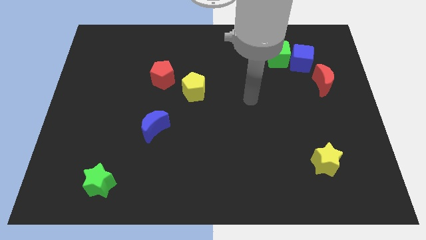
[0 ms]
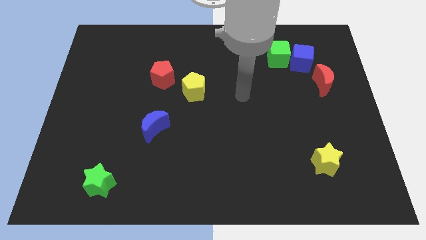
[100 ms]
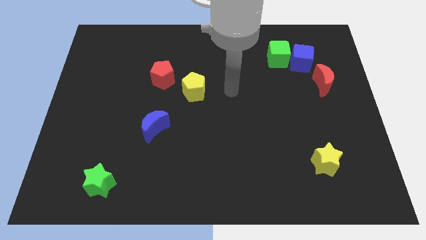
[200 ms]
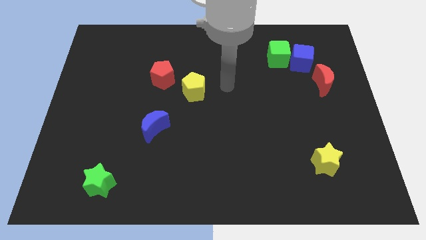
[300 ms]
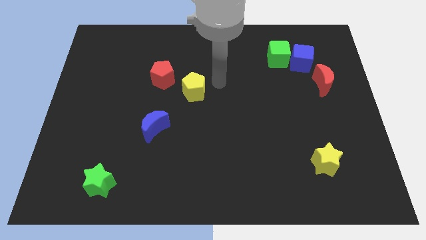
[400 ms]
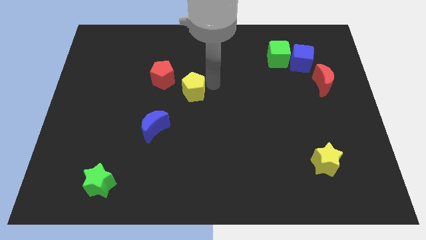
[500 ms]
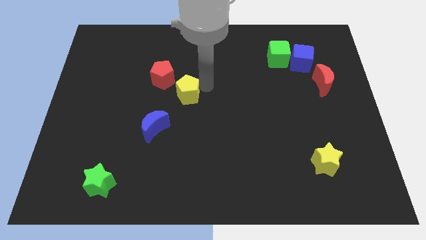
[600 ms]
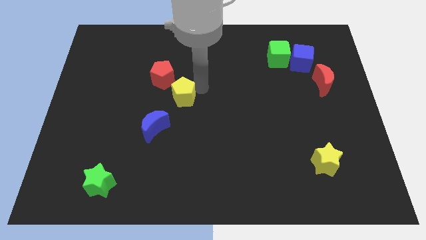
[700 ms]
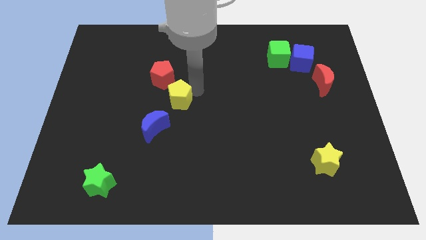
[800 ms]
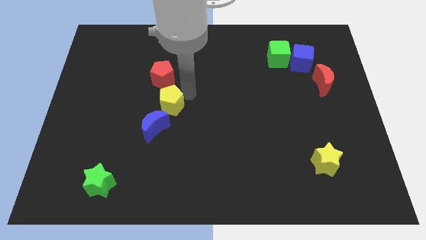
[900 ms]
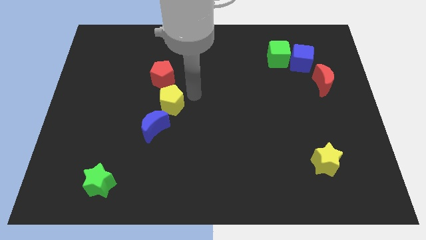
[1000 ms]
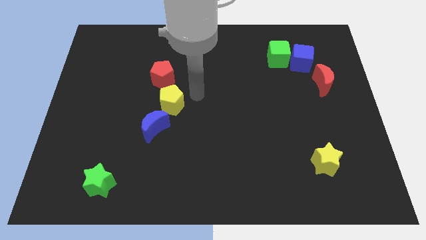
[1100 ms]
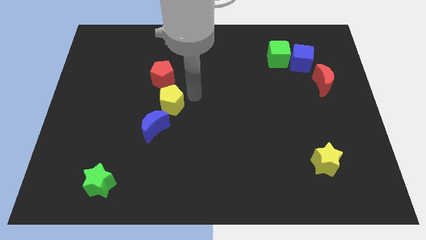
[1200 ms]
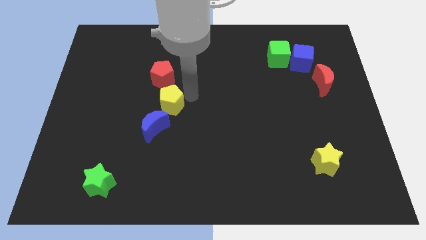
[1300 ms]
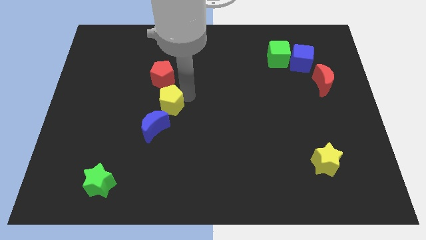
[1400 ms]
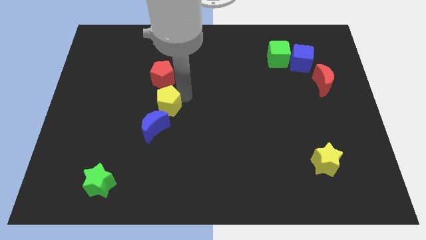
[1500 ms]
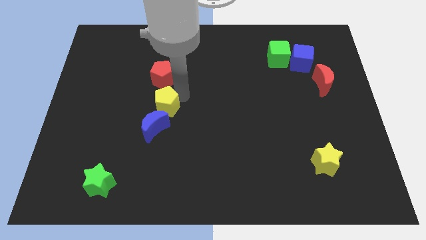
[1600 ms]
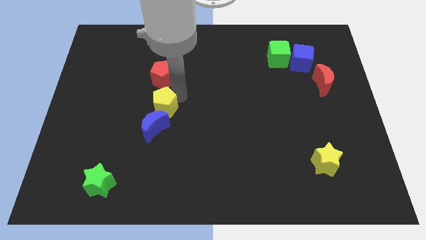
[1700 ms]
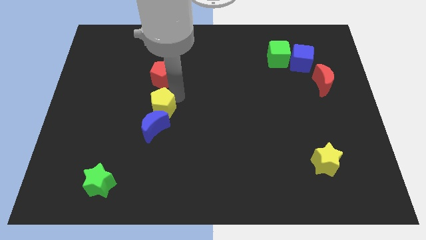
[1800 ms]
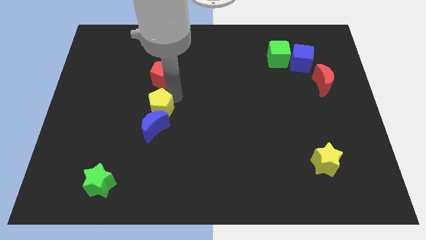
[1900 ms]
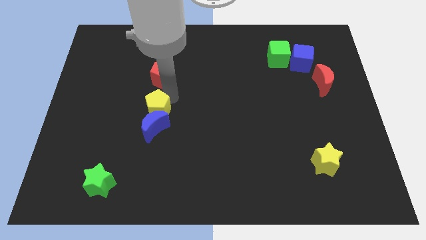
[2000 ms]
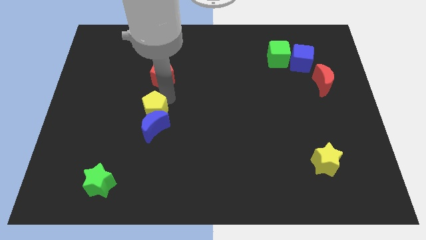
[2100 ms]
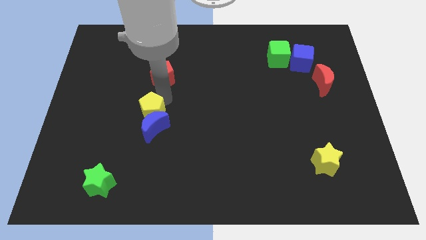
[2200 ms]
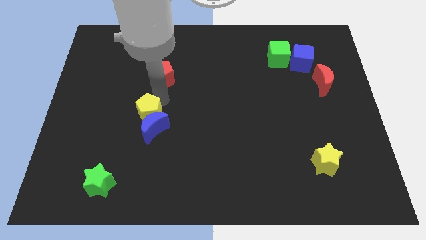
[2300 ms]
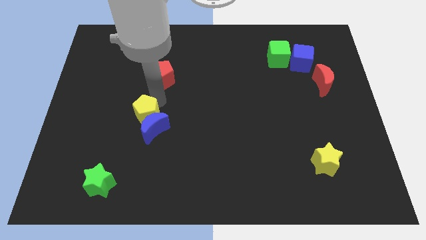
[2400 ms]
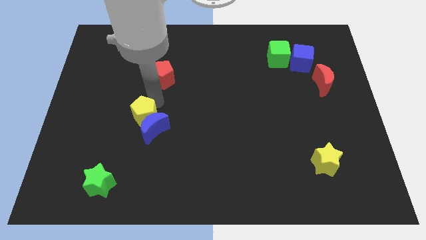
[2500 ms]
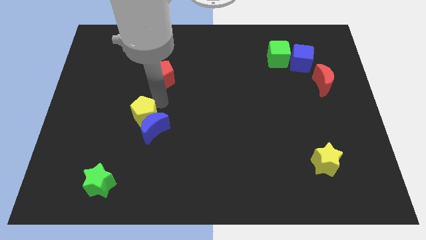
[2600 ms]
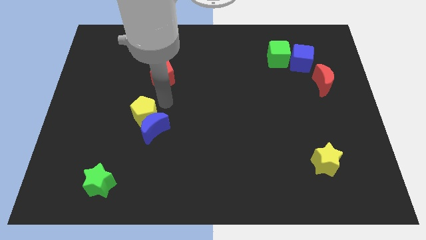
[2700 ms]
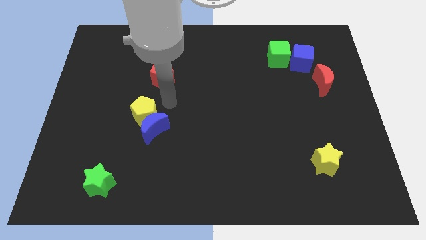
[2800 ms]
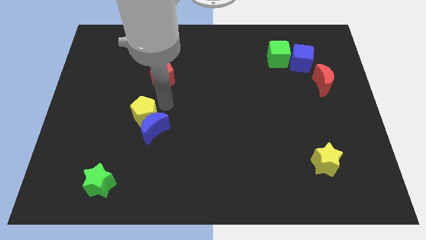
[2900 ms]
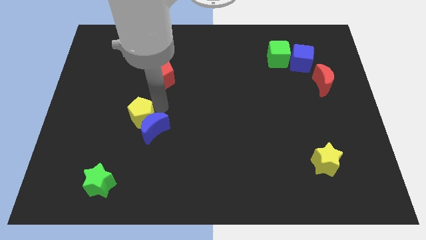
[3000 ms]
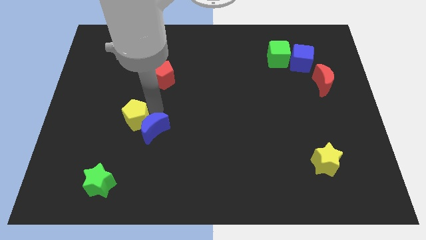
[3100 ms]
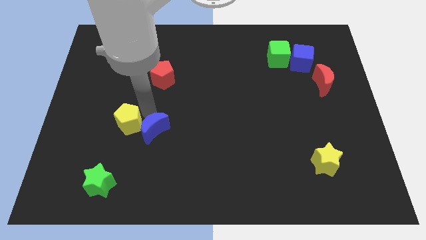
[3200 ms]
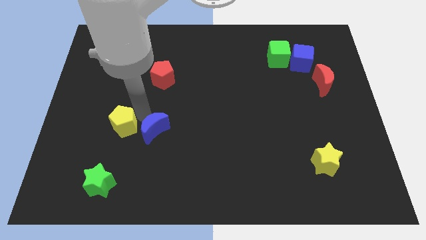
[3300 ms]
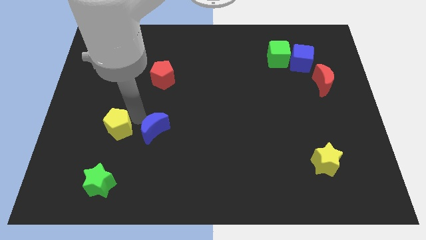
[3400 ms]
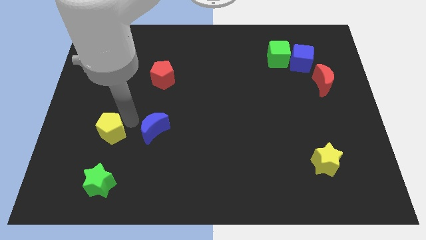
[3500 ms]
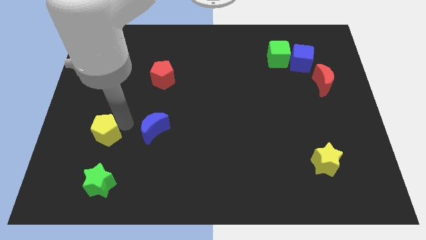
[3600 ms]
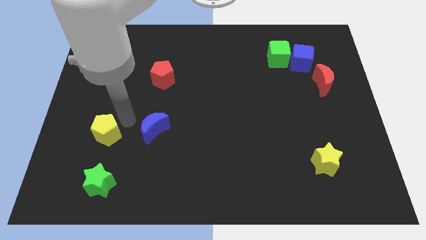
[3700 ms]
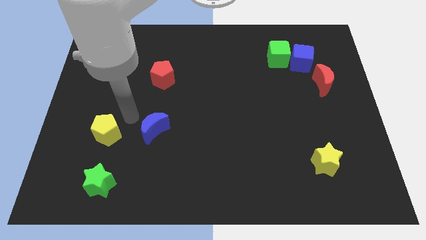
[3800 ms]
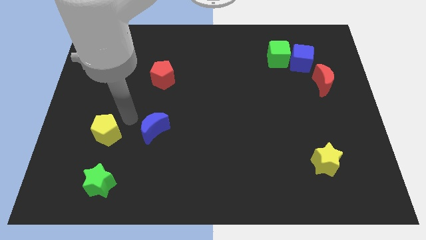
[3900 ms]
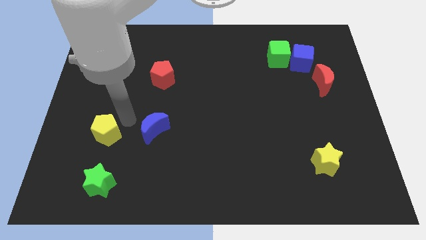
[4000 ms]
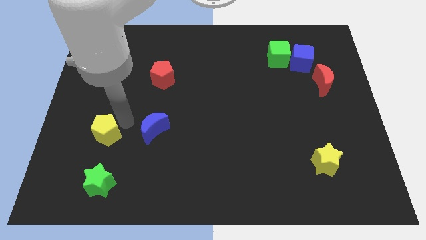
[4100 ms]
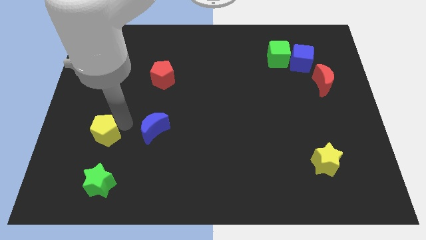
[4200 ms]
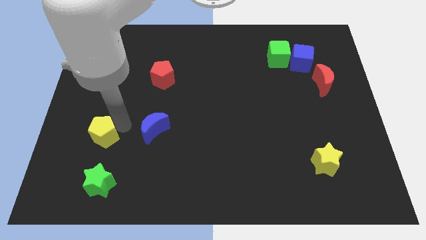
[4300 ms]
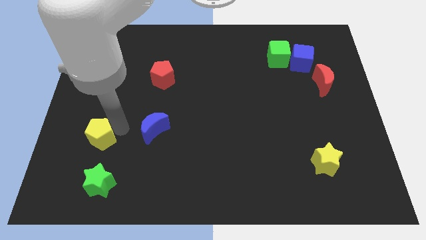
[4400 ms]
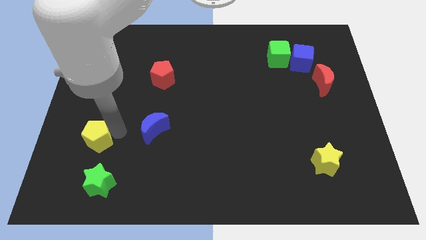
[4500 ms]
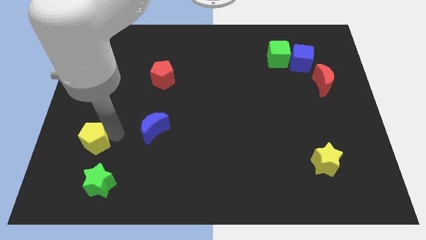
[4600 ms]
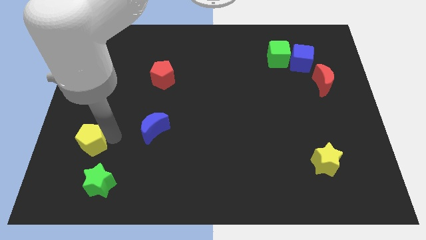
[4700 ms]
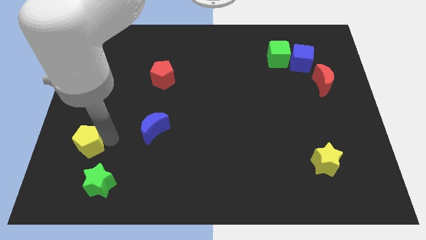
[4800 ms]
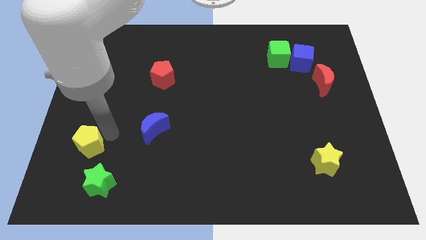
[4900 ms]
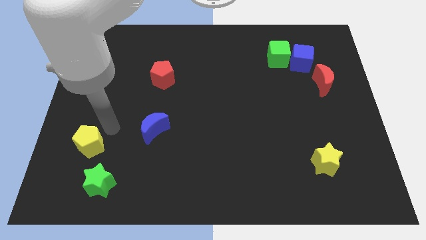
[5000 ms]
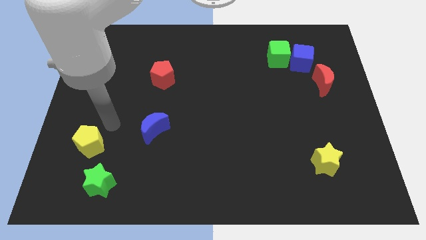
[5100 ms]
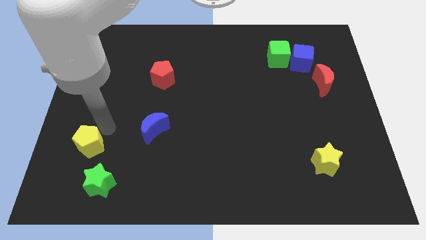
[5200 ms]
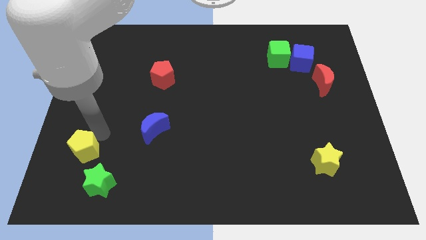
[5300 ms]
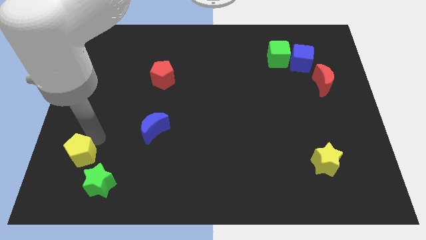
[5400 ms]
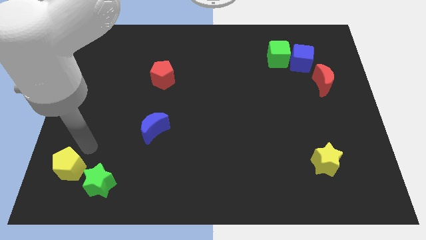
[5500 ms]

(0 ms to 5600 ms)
move the yellow pentagon to the lower left corner

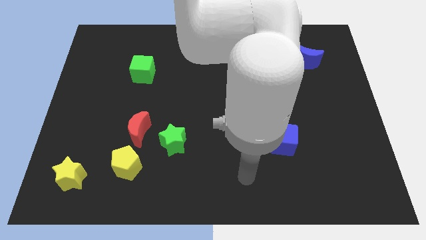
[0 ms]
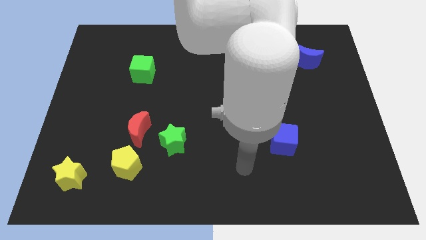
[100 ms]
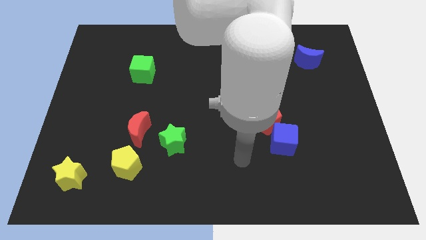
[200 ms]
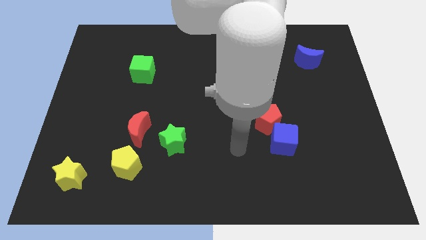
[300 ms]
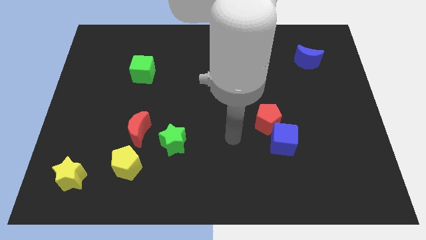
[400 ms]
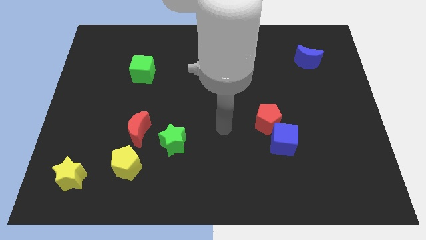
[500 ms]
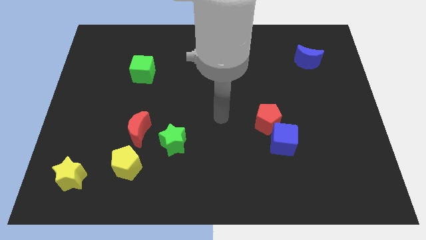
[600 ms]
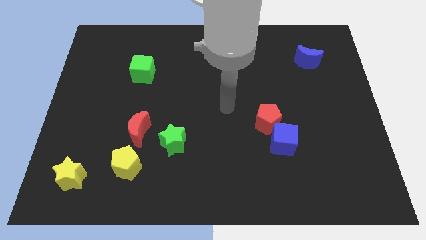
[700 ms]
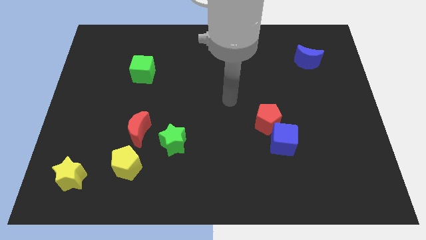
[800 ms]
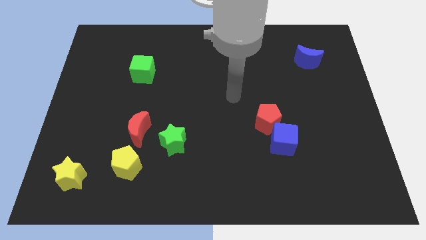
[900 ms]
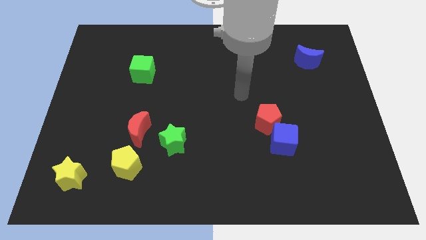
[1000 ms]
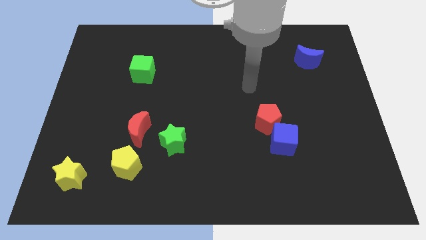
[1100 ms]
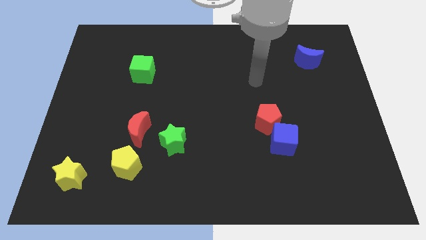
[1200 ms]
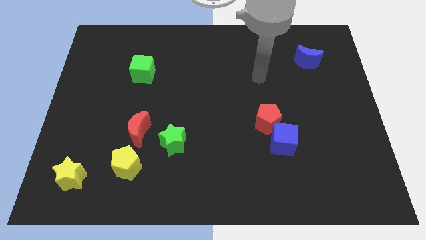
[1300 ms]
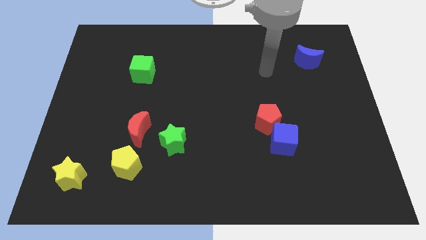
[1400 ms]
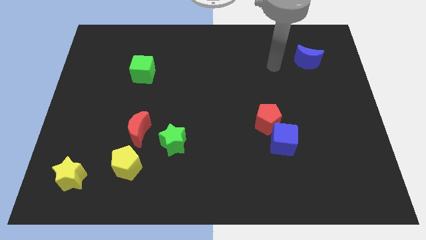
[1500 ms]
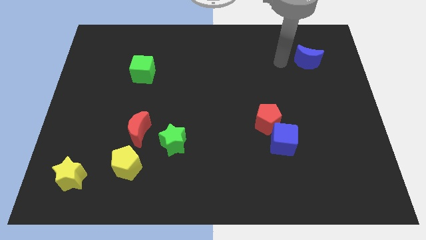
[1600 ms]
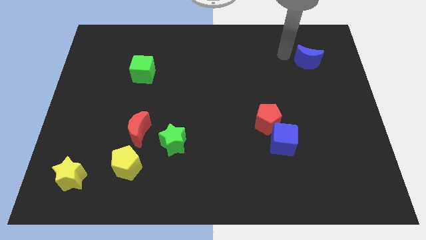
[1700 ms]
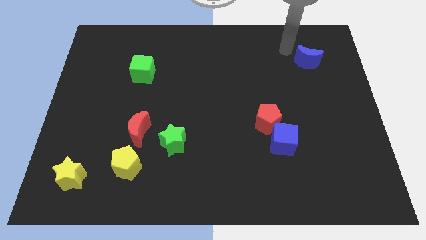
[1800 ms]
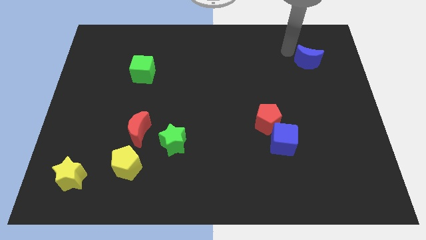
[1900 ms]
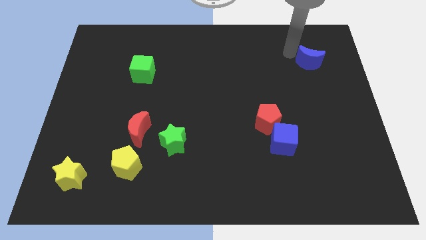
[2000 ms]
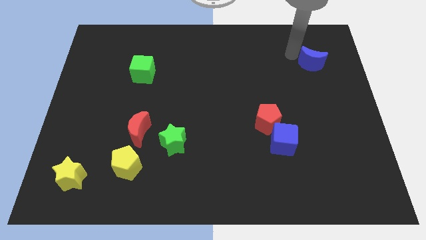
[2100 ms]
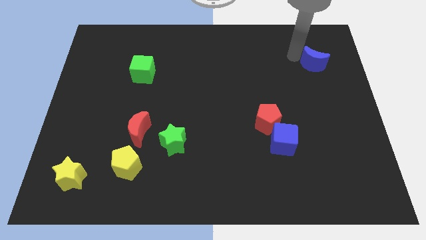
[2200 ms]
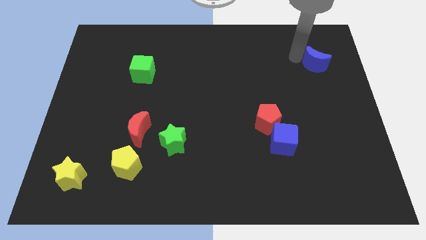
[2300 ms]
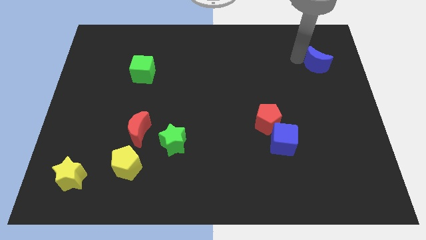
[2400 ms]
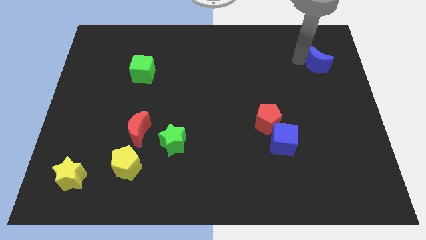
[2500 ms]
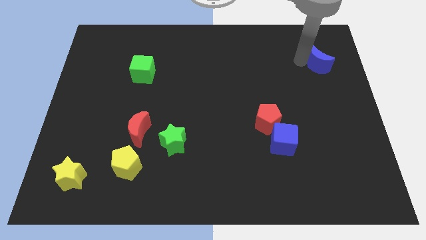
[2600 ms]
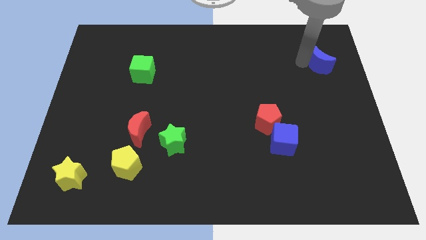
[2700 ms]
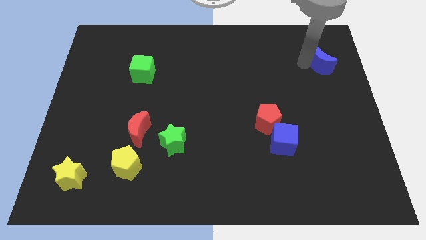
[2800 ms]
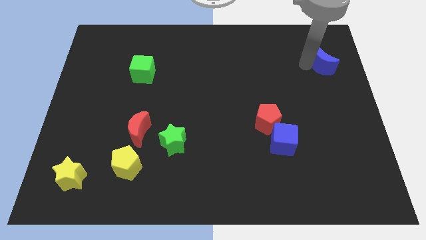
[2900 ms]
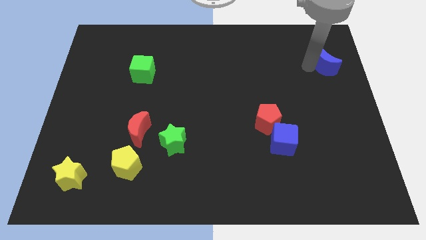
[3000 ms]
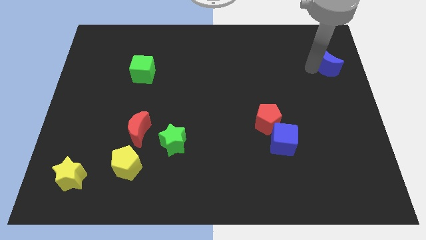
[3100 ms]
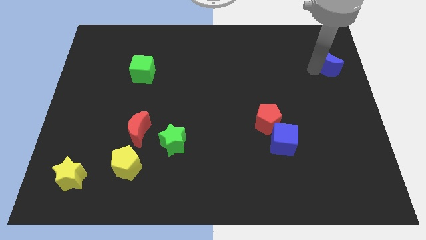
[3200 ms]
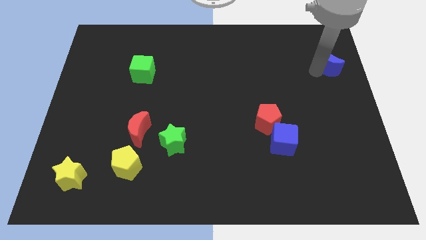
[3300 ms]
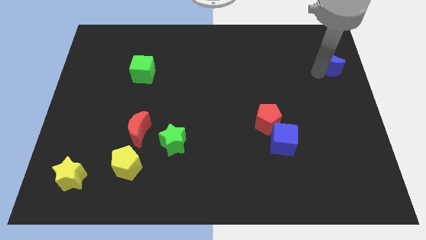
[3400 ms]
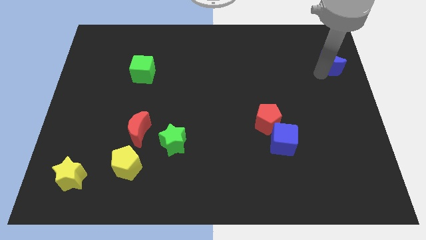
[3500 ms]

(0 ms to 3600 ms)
push the blue moon to the right side
